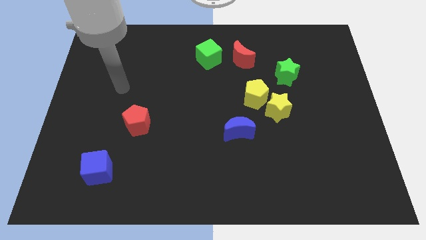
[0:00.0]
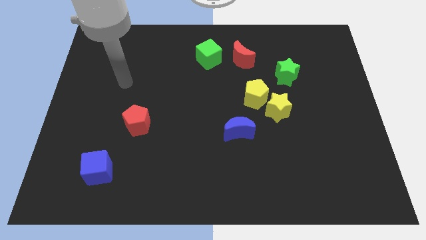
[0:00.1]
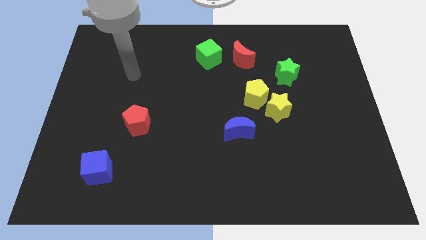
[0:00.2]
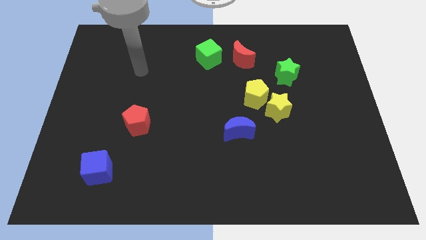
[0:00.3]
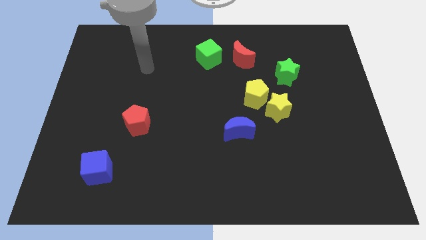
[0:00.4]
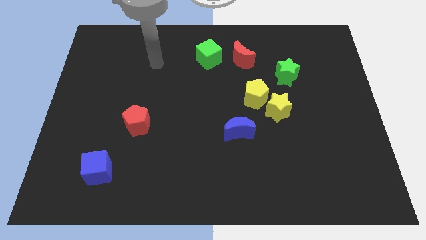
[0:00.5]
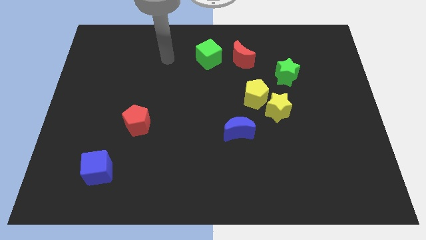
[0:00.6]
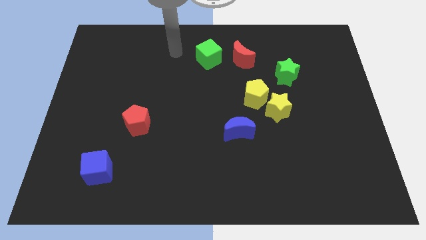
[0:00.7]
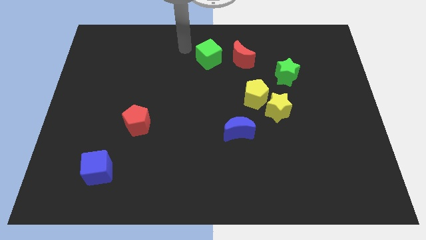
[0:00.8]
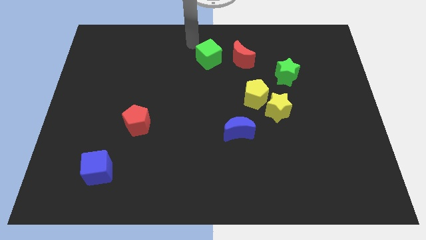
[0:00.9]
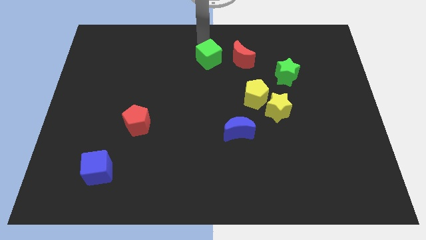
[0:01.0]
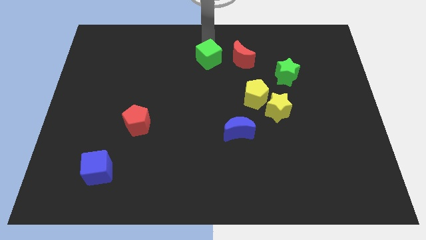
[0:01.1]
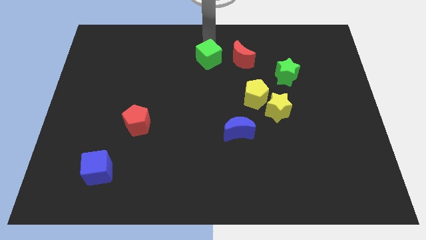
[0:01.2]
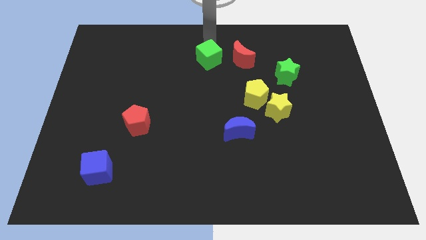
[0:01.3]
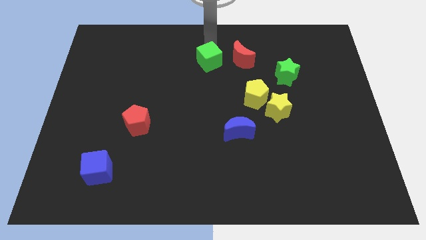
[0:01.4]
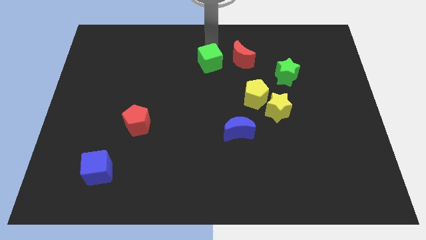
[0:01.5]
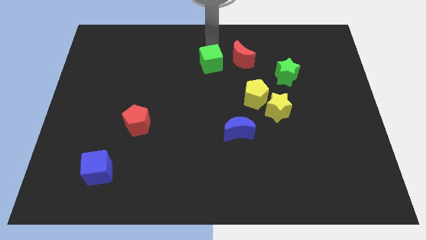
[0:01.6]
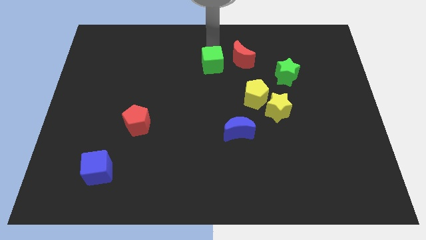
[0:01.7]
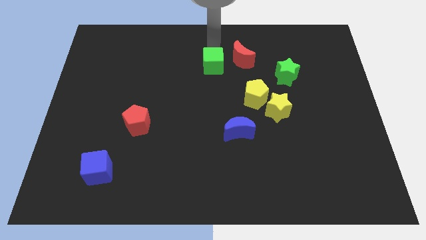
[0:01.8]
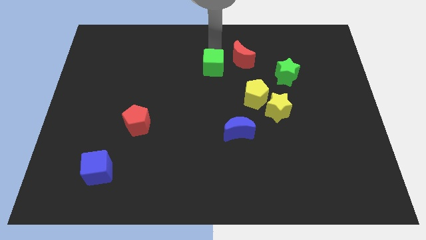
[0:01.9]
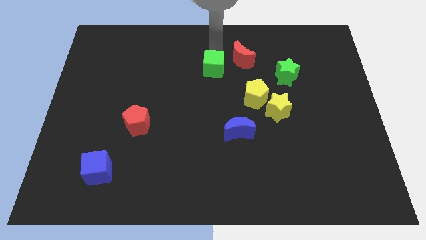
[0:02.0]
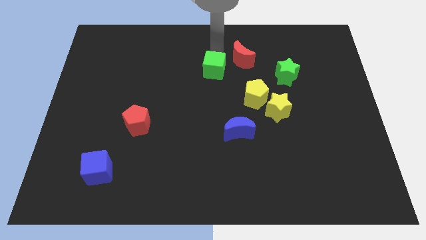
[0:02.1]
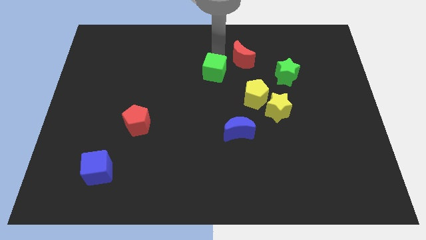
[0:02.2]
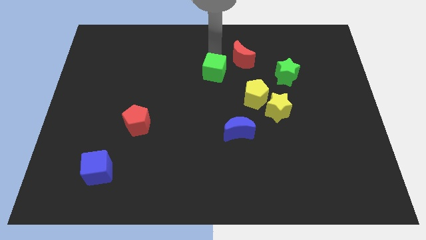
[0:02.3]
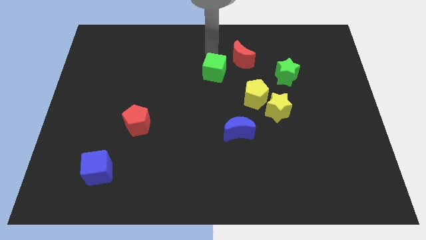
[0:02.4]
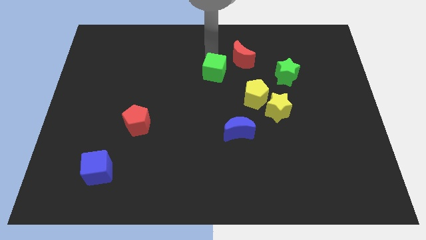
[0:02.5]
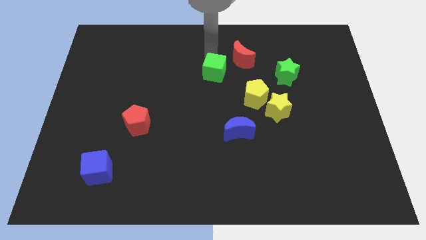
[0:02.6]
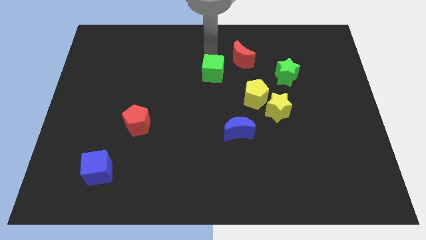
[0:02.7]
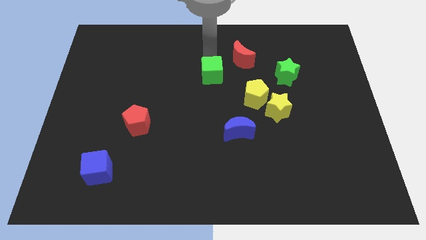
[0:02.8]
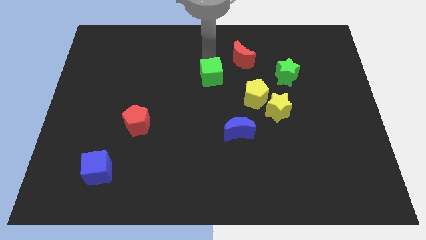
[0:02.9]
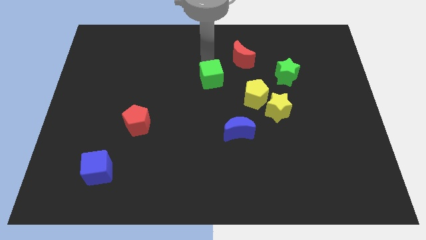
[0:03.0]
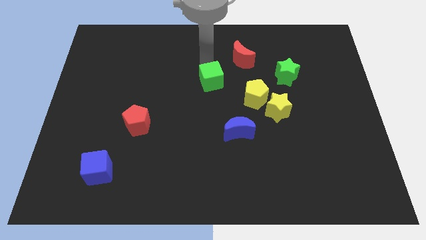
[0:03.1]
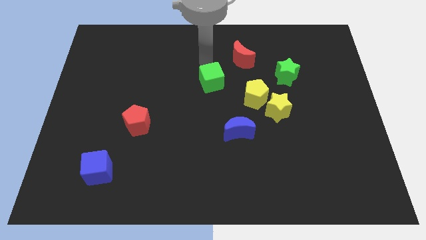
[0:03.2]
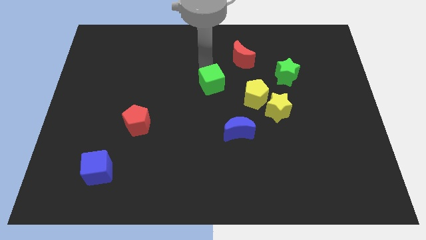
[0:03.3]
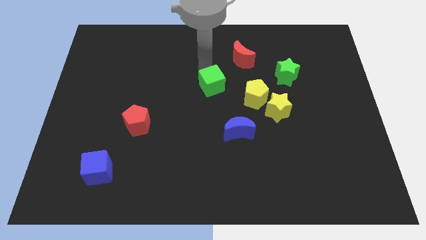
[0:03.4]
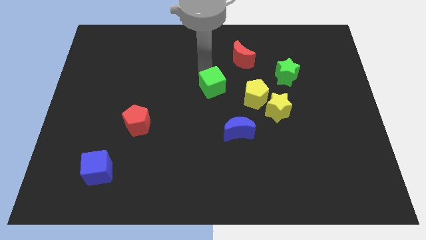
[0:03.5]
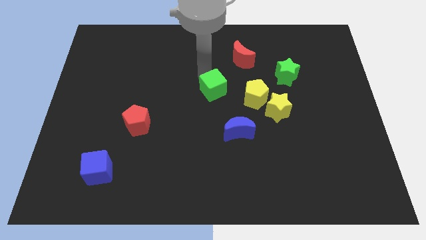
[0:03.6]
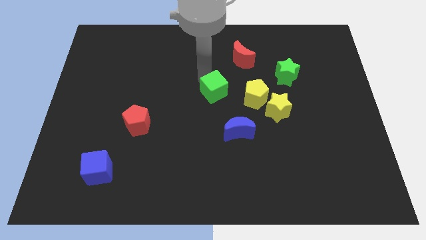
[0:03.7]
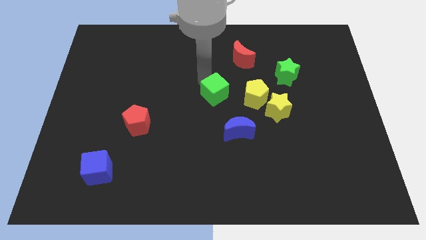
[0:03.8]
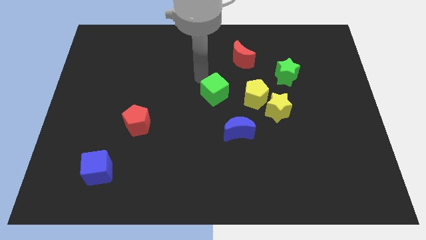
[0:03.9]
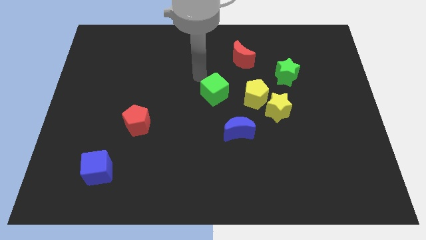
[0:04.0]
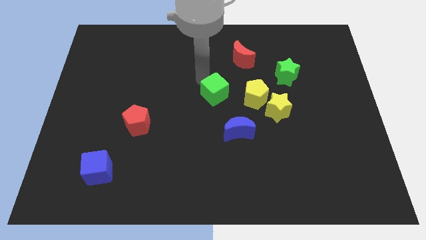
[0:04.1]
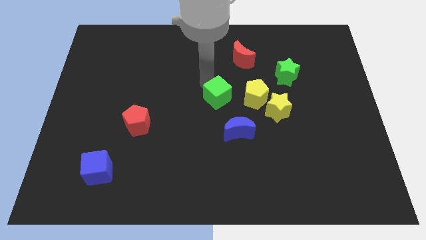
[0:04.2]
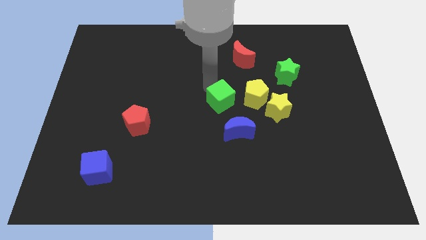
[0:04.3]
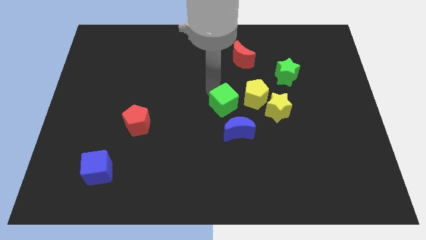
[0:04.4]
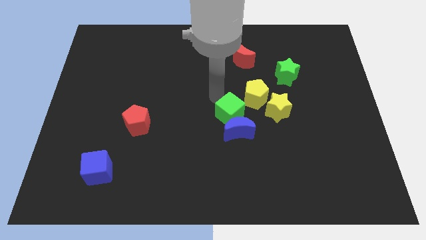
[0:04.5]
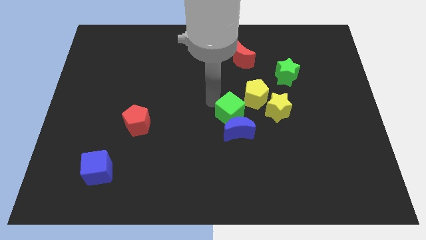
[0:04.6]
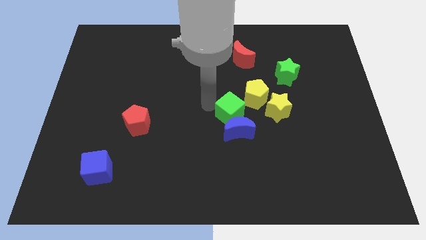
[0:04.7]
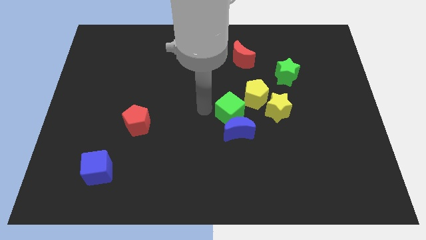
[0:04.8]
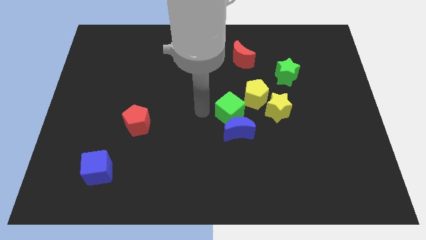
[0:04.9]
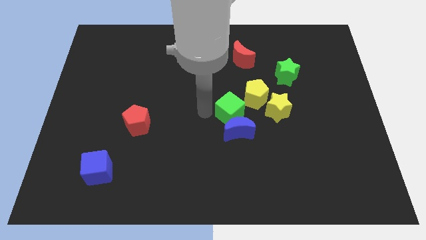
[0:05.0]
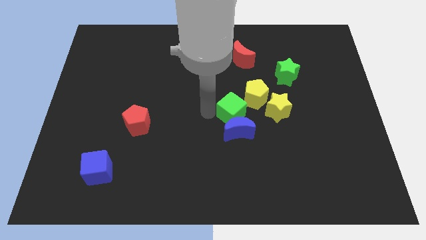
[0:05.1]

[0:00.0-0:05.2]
slide the green cube to the top right of the blue moon

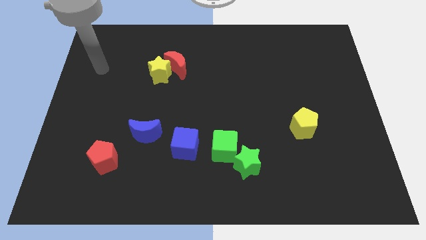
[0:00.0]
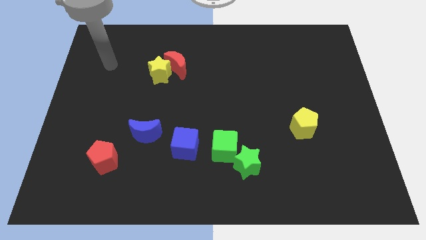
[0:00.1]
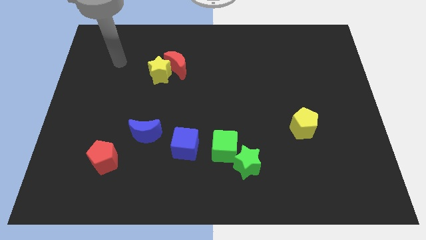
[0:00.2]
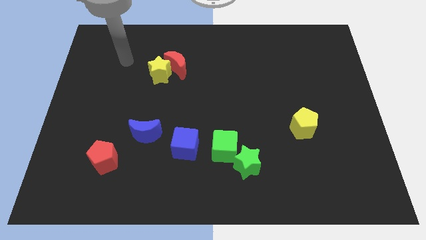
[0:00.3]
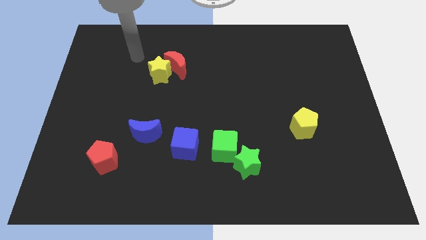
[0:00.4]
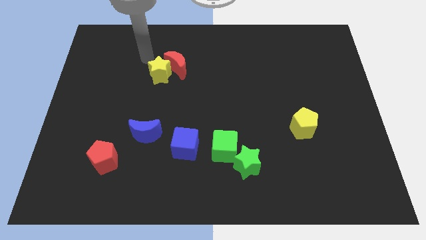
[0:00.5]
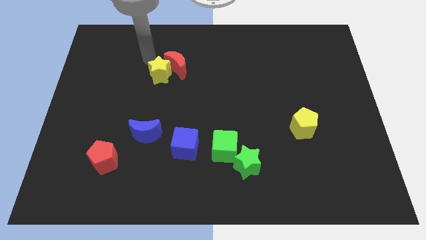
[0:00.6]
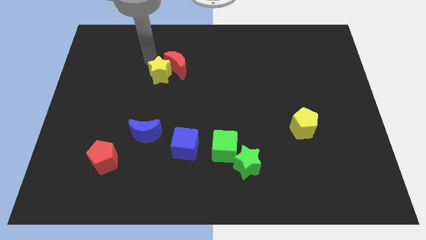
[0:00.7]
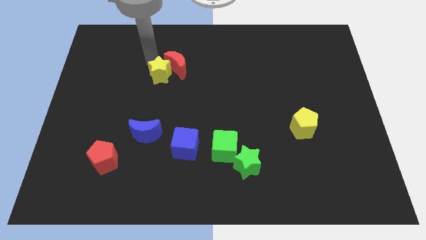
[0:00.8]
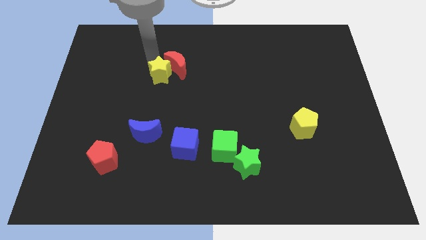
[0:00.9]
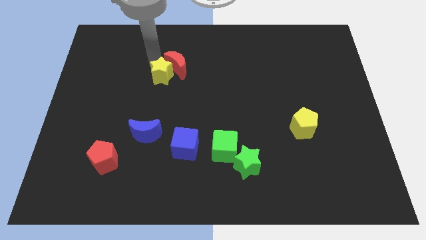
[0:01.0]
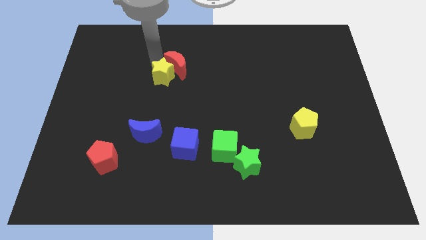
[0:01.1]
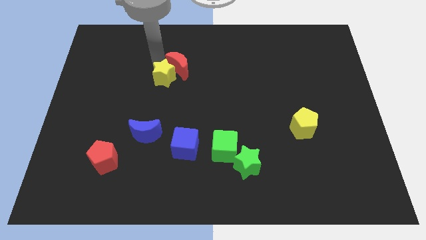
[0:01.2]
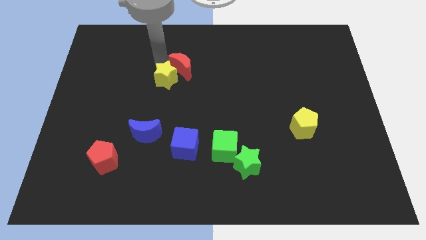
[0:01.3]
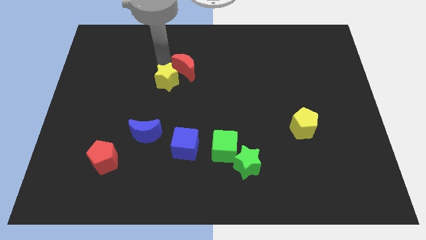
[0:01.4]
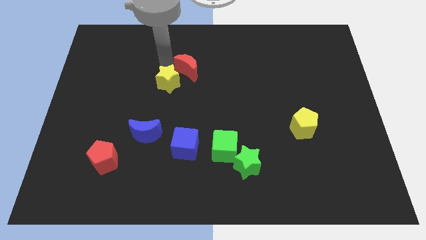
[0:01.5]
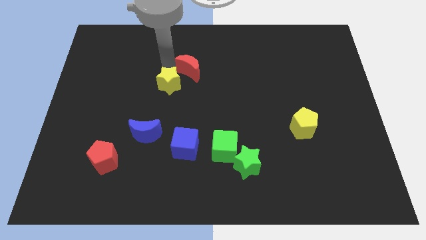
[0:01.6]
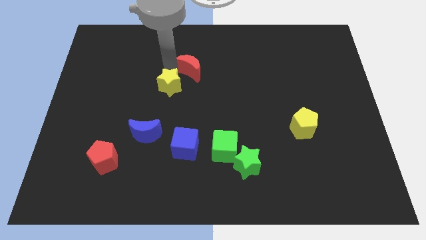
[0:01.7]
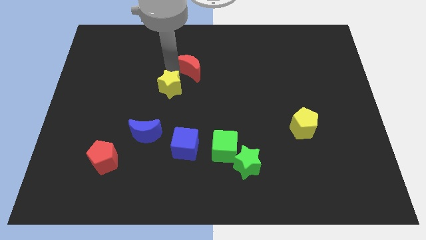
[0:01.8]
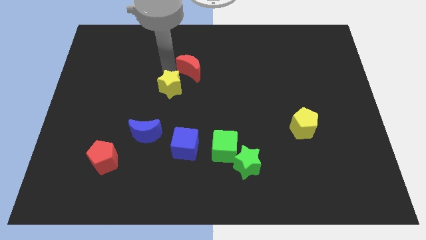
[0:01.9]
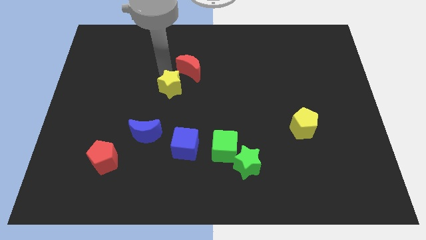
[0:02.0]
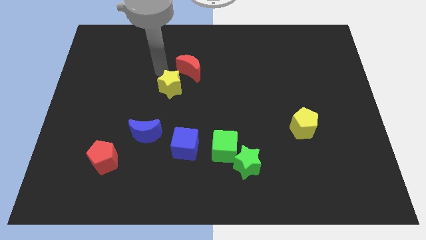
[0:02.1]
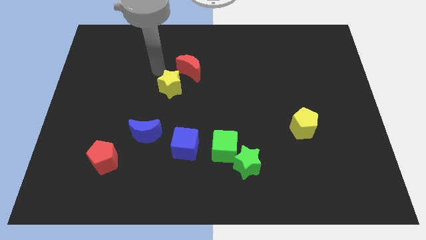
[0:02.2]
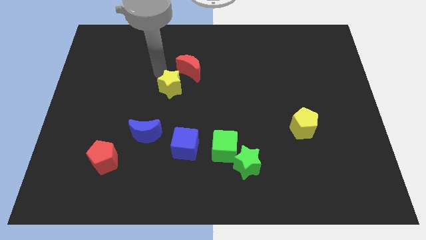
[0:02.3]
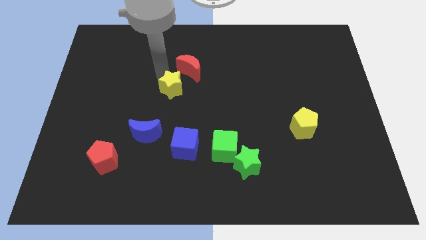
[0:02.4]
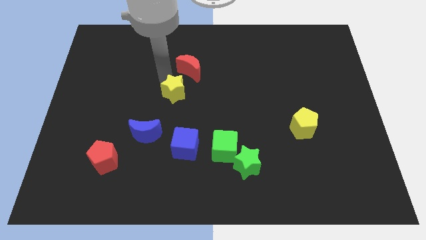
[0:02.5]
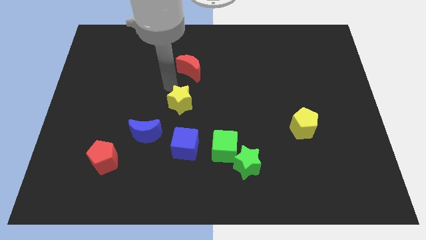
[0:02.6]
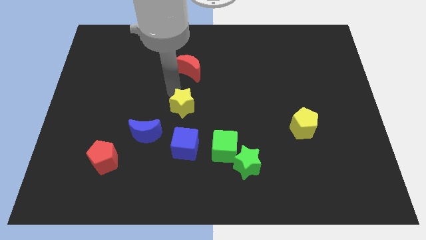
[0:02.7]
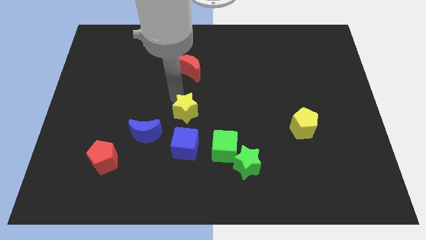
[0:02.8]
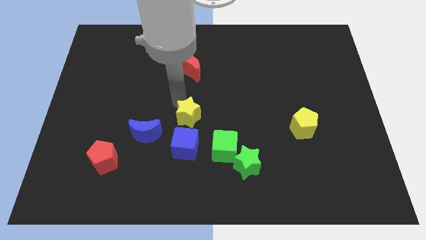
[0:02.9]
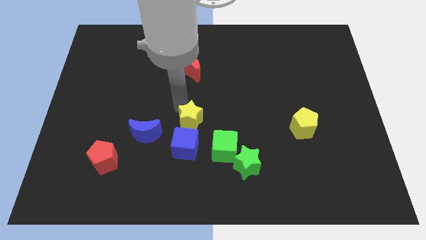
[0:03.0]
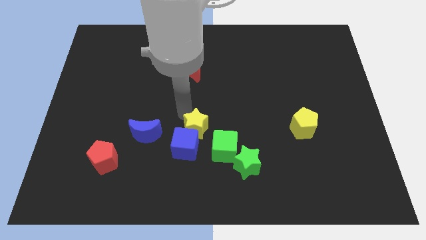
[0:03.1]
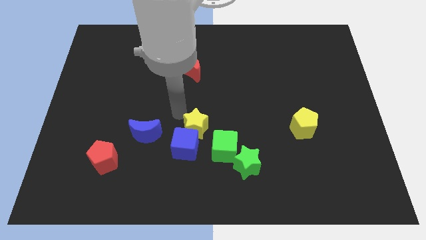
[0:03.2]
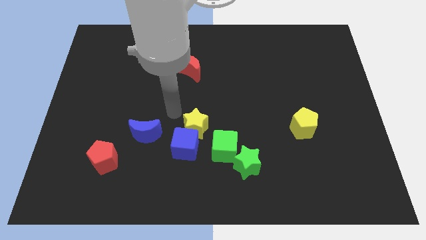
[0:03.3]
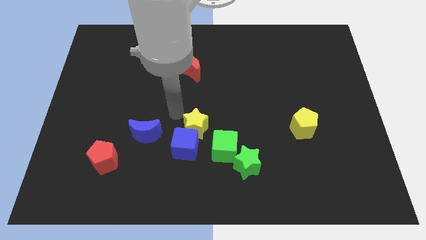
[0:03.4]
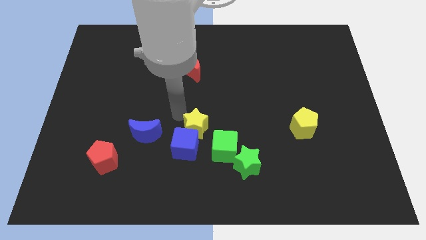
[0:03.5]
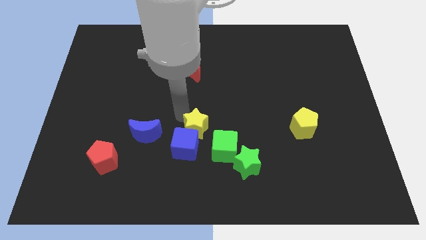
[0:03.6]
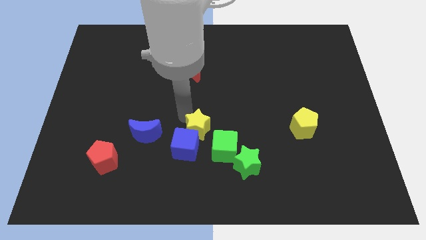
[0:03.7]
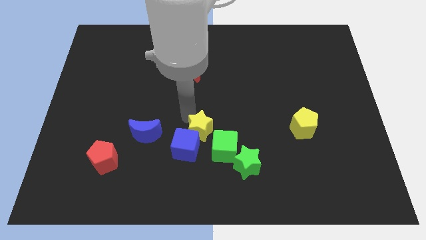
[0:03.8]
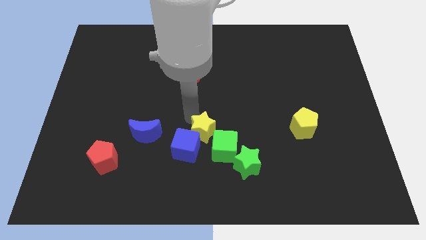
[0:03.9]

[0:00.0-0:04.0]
slide the yellow star to the top left of the green star
